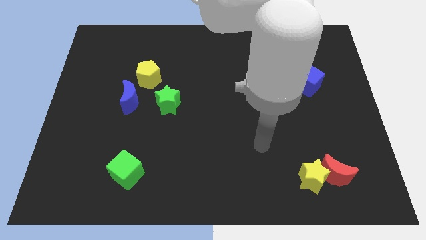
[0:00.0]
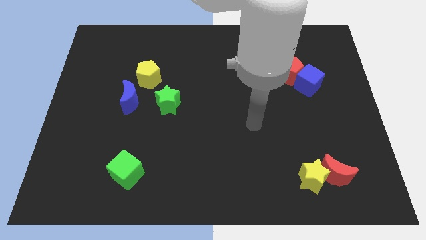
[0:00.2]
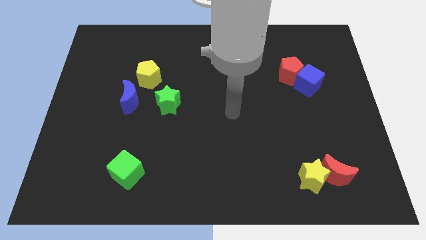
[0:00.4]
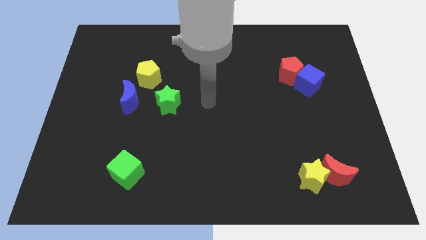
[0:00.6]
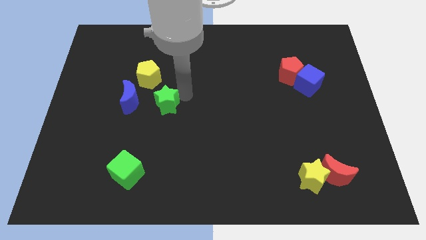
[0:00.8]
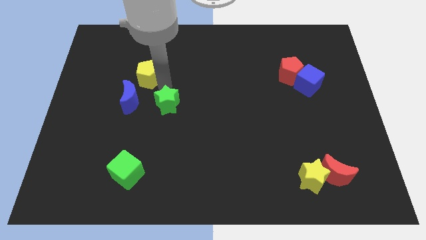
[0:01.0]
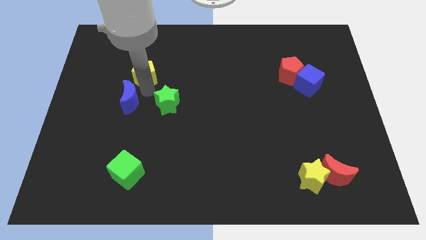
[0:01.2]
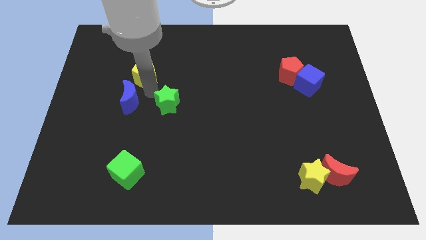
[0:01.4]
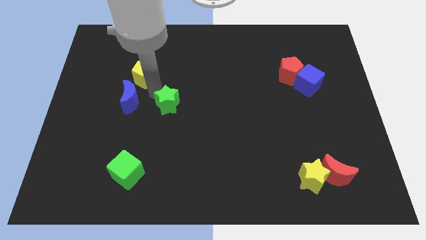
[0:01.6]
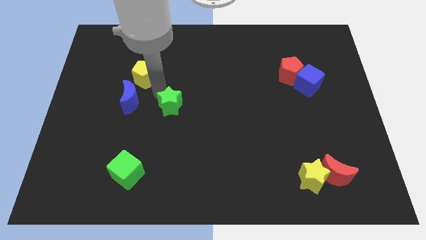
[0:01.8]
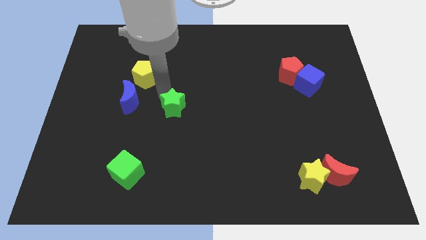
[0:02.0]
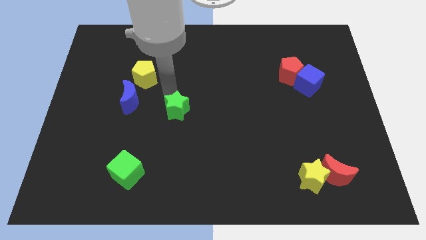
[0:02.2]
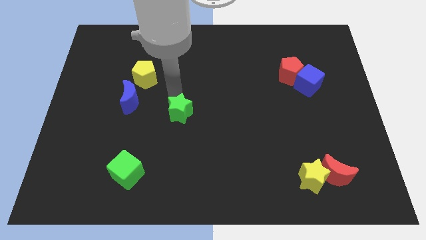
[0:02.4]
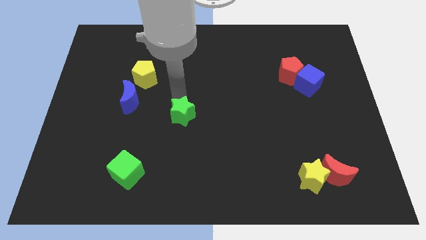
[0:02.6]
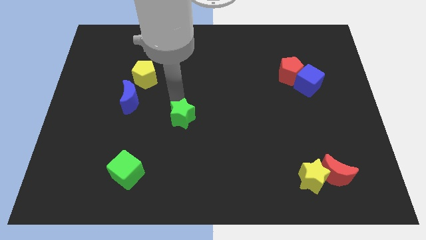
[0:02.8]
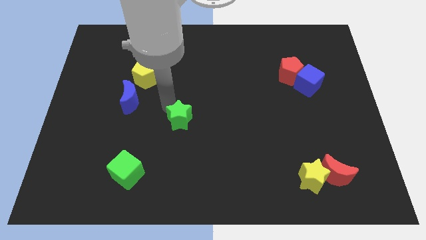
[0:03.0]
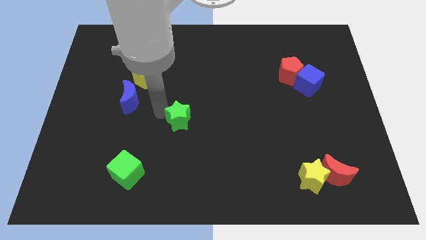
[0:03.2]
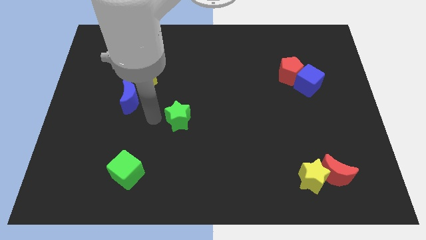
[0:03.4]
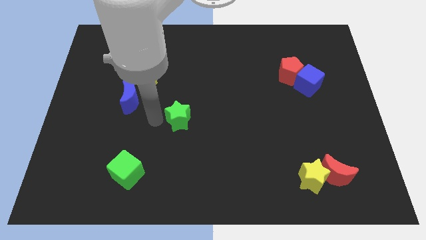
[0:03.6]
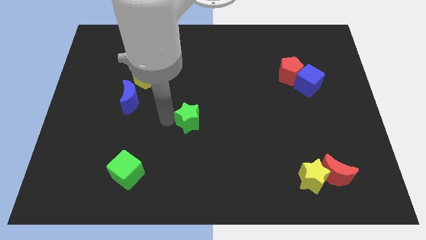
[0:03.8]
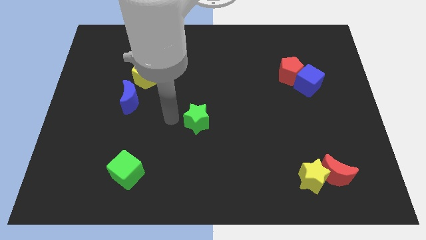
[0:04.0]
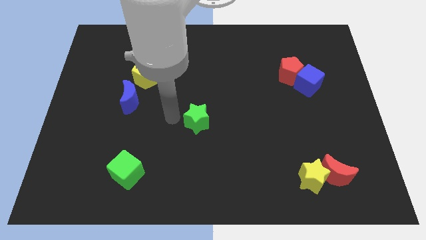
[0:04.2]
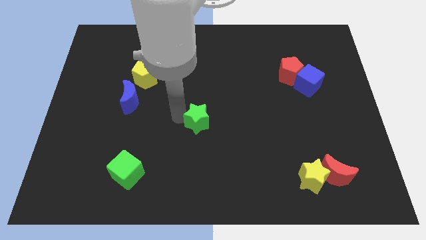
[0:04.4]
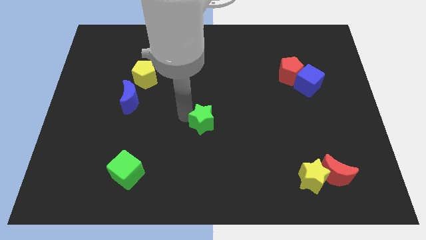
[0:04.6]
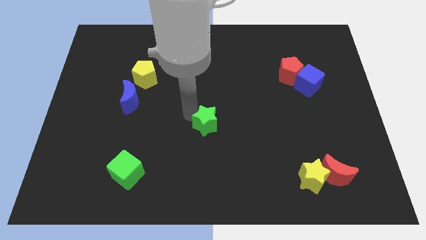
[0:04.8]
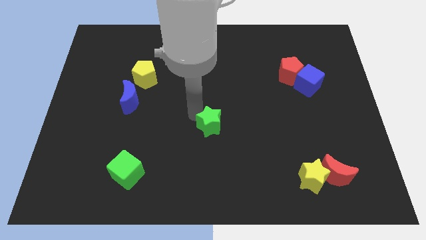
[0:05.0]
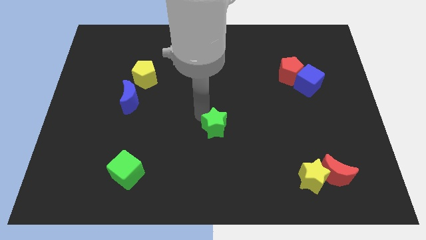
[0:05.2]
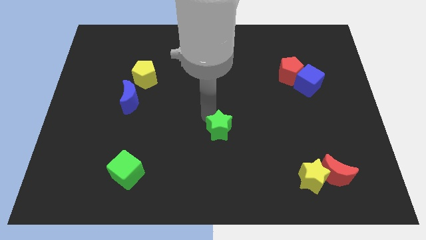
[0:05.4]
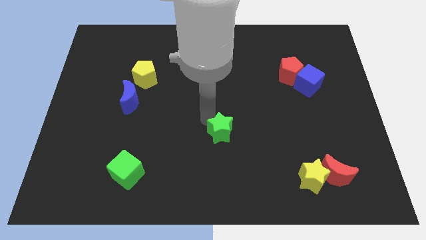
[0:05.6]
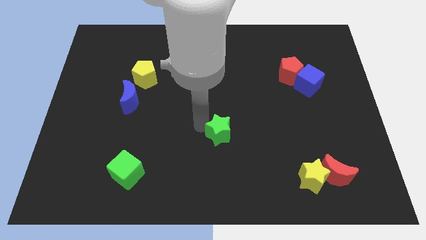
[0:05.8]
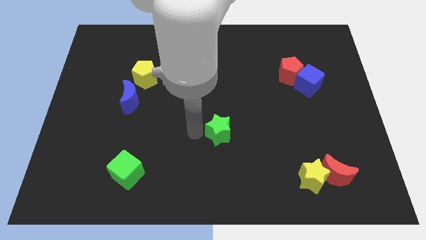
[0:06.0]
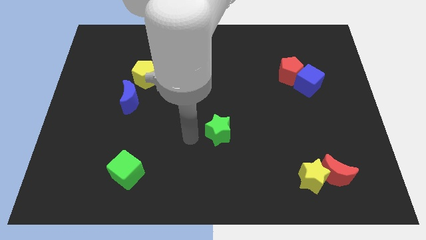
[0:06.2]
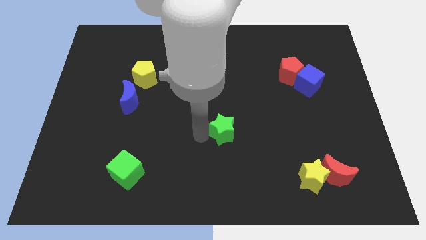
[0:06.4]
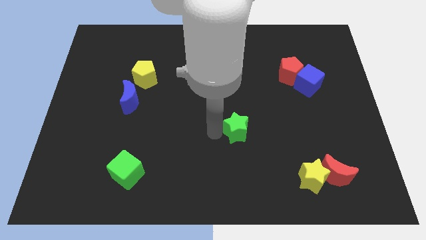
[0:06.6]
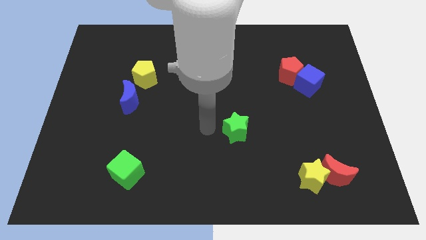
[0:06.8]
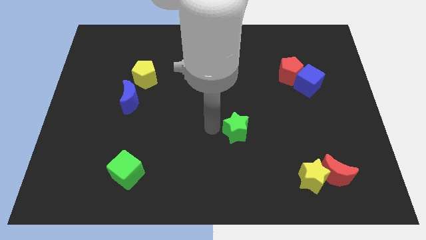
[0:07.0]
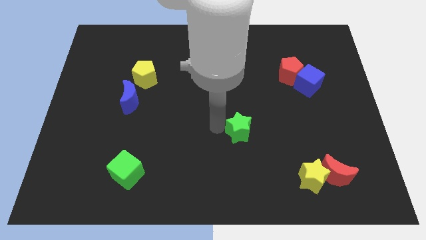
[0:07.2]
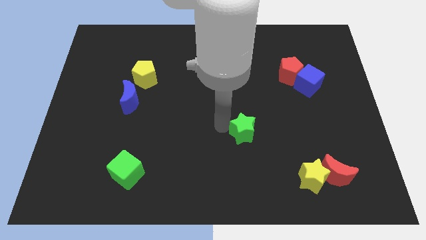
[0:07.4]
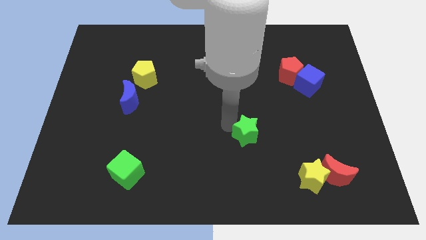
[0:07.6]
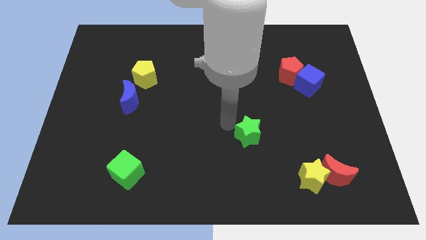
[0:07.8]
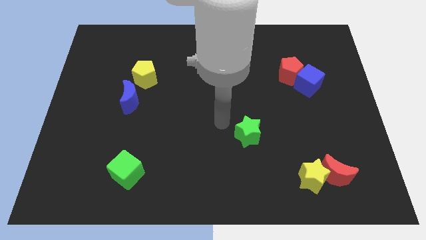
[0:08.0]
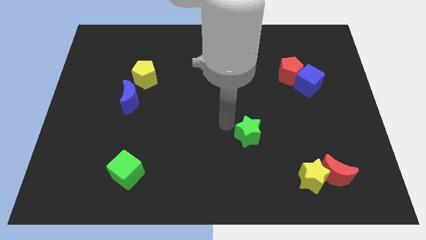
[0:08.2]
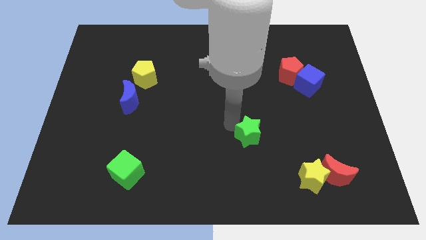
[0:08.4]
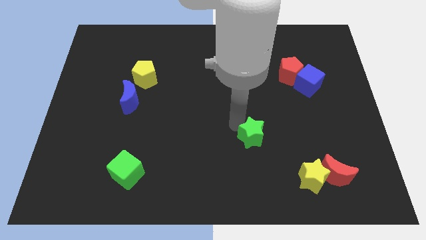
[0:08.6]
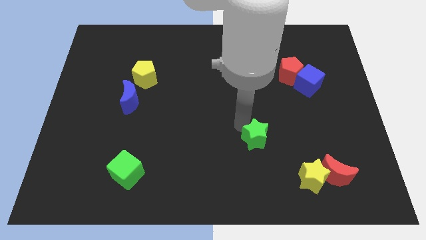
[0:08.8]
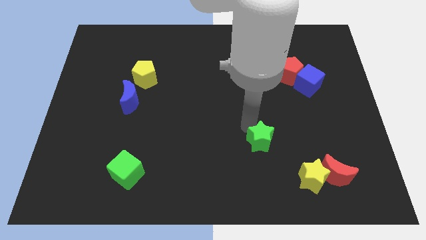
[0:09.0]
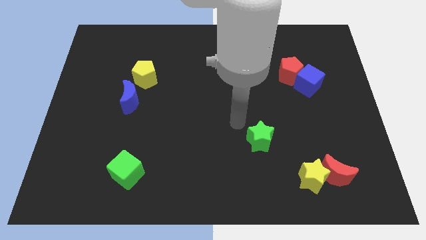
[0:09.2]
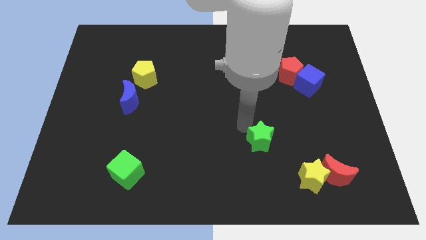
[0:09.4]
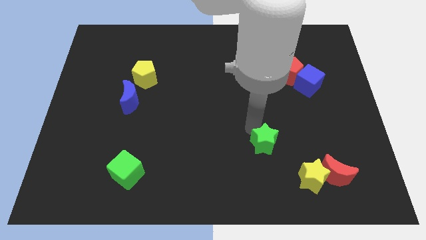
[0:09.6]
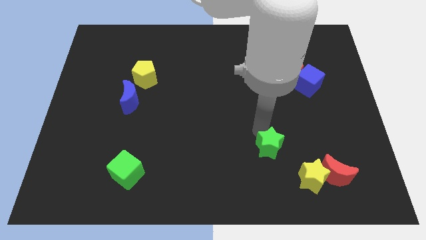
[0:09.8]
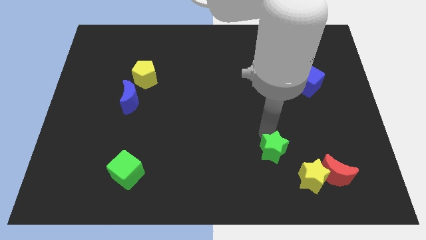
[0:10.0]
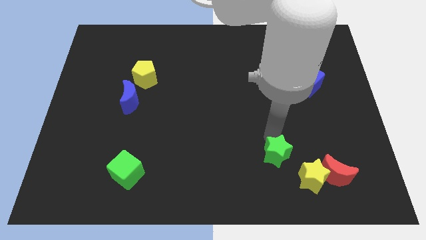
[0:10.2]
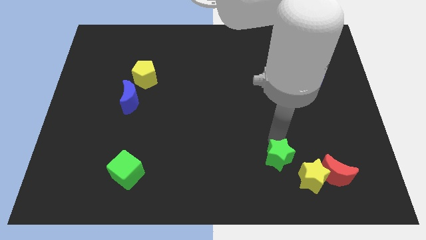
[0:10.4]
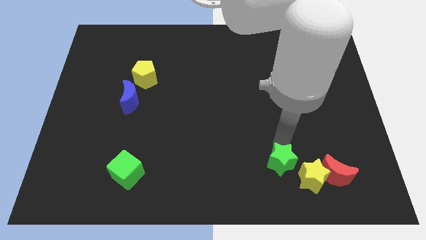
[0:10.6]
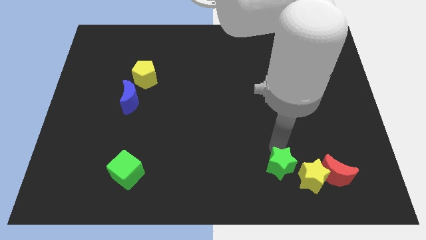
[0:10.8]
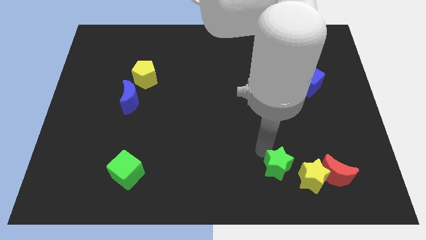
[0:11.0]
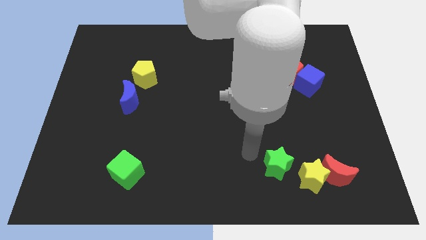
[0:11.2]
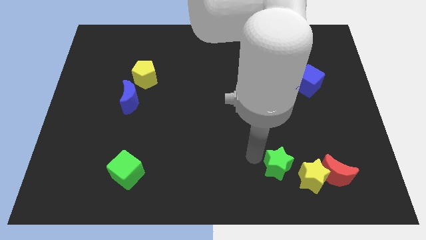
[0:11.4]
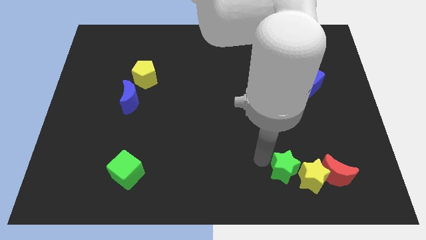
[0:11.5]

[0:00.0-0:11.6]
slide the green star close to the yellow star

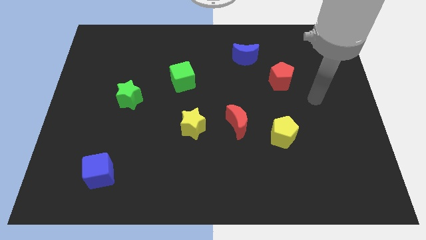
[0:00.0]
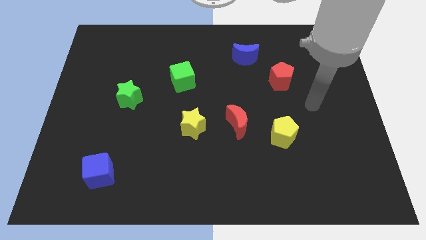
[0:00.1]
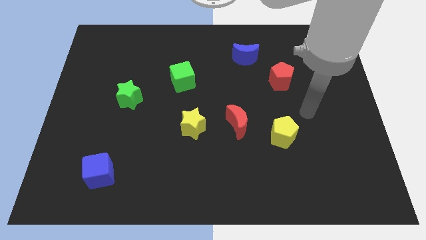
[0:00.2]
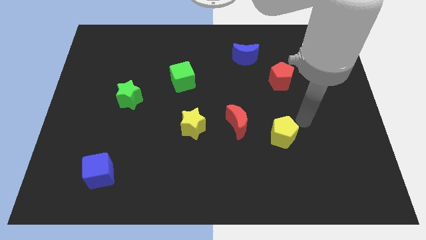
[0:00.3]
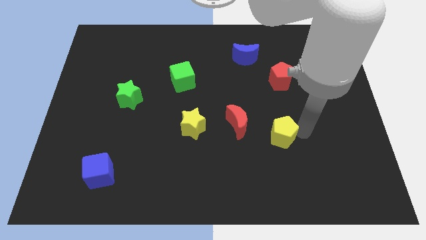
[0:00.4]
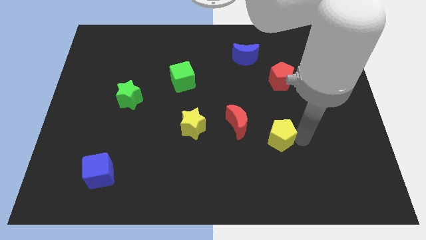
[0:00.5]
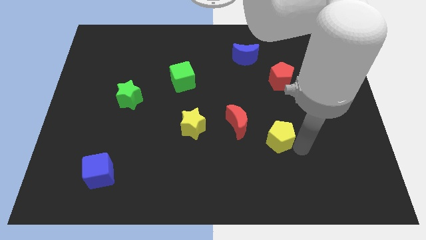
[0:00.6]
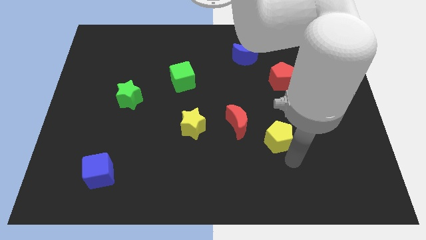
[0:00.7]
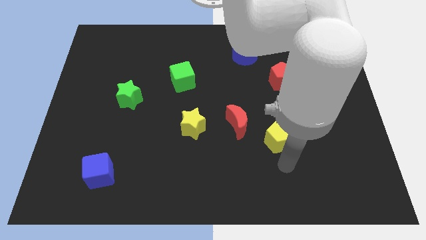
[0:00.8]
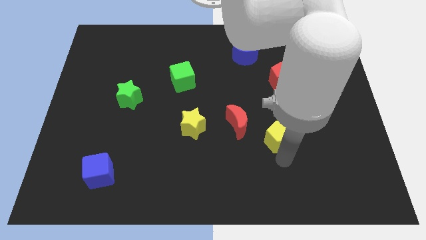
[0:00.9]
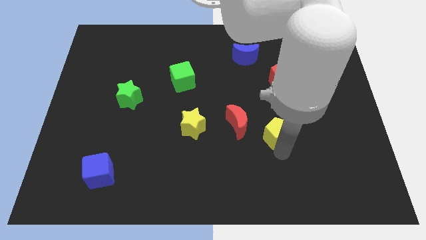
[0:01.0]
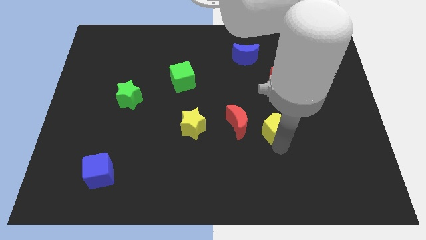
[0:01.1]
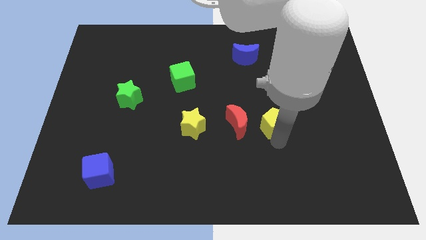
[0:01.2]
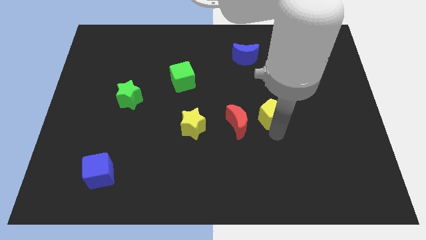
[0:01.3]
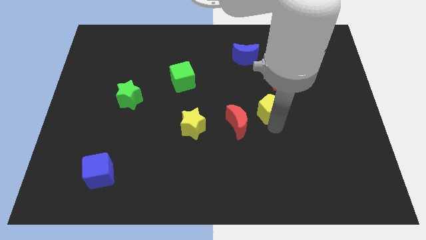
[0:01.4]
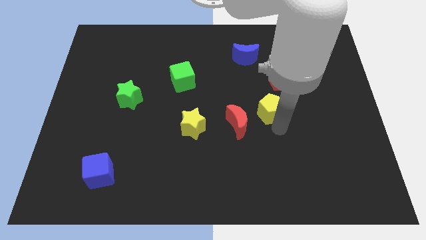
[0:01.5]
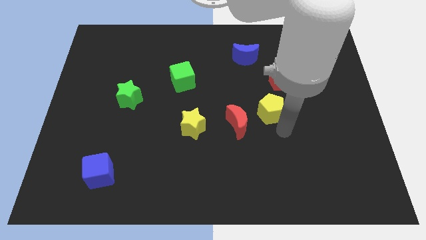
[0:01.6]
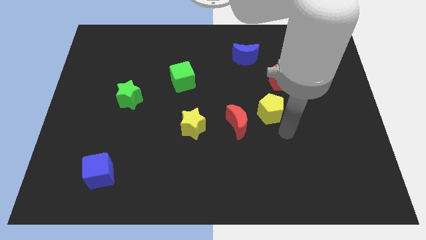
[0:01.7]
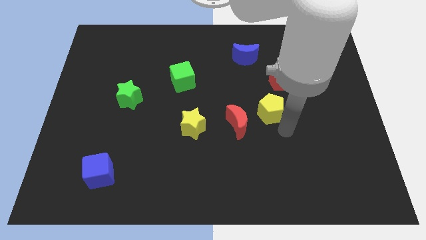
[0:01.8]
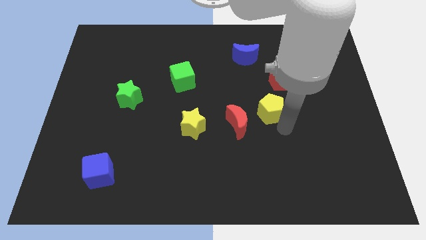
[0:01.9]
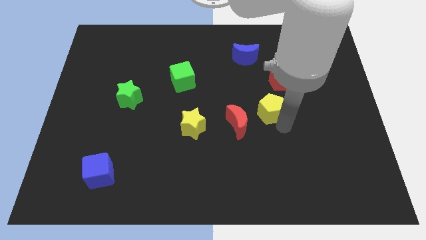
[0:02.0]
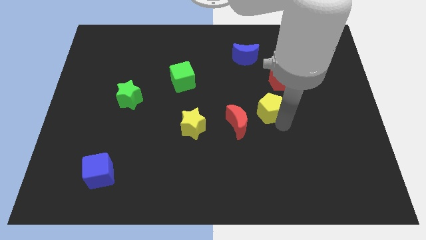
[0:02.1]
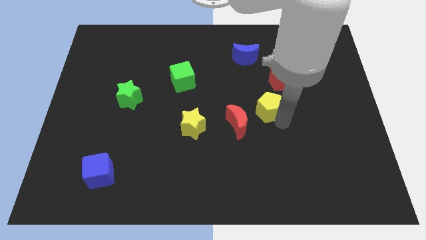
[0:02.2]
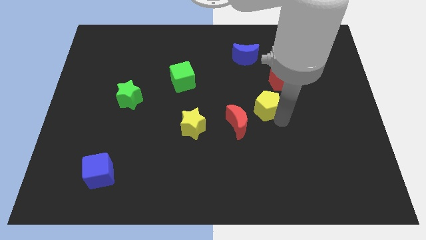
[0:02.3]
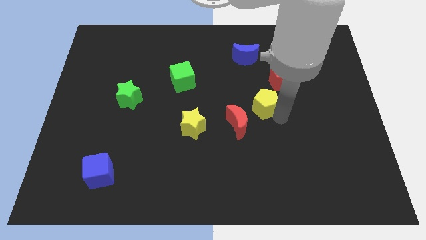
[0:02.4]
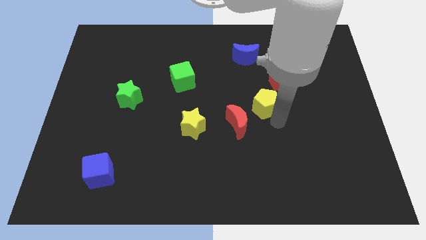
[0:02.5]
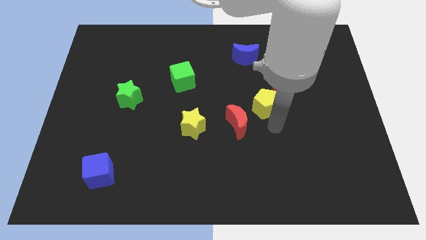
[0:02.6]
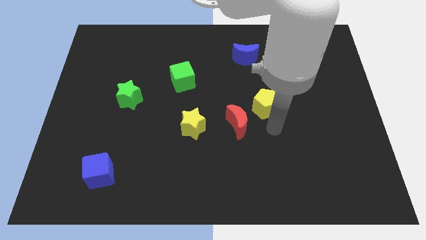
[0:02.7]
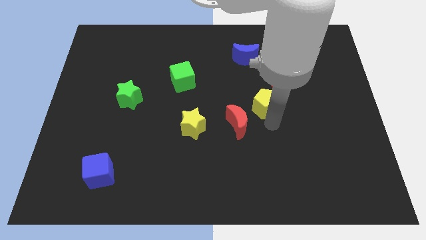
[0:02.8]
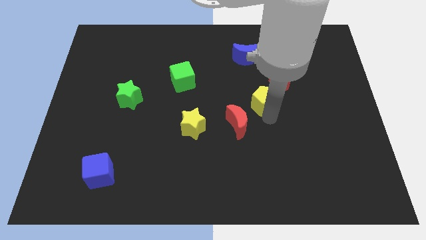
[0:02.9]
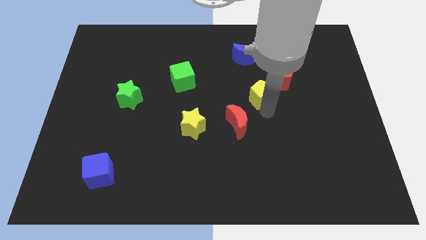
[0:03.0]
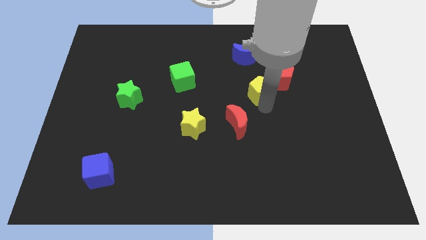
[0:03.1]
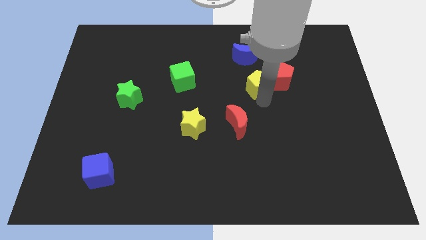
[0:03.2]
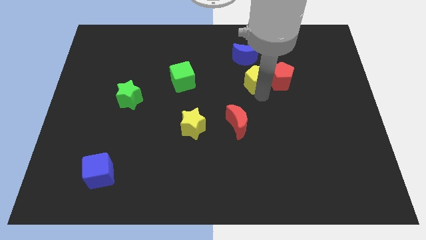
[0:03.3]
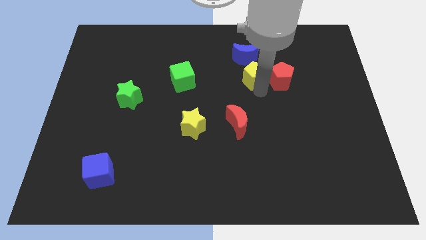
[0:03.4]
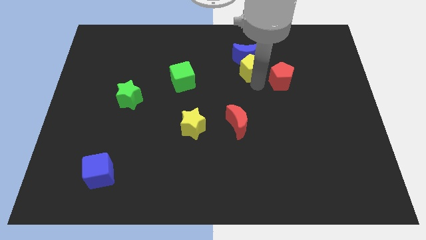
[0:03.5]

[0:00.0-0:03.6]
move the yellow pentagon towards the blue moon
